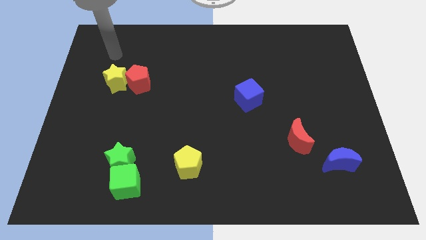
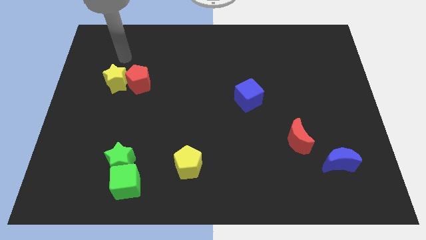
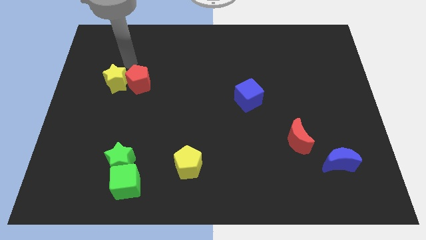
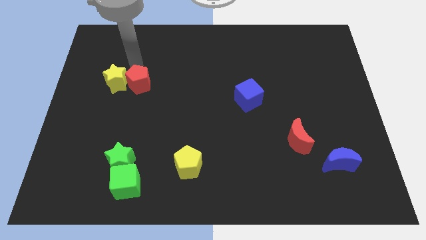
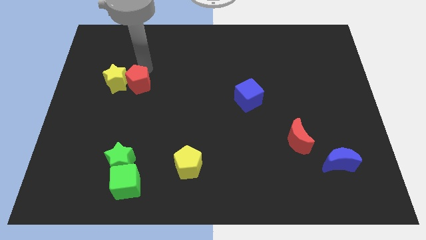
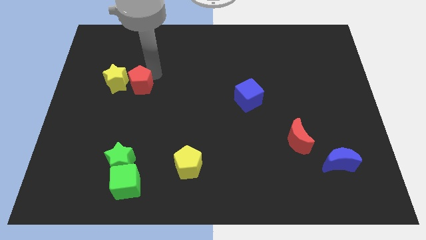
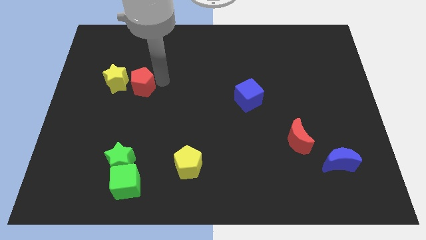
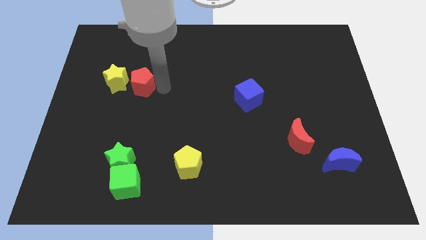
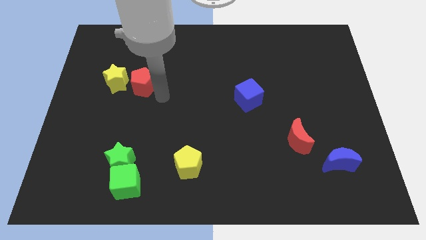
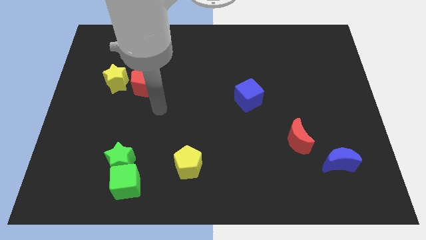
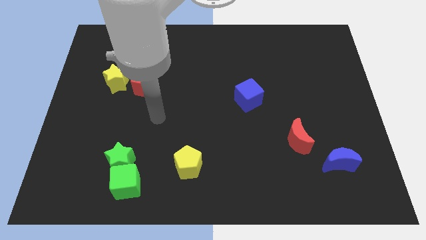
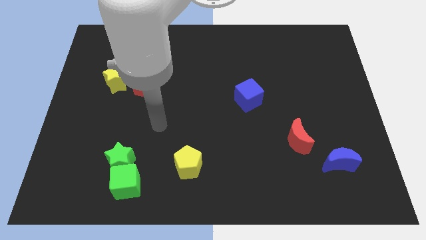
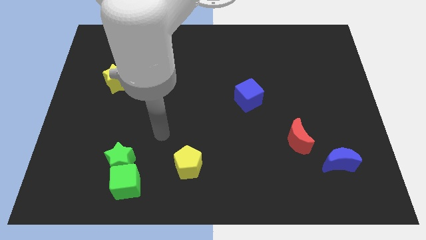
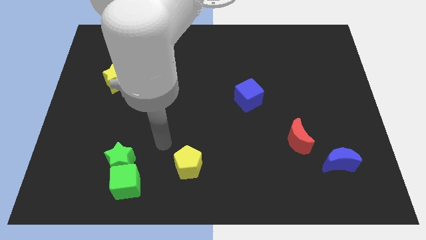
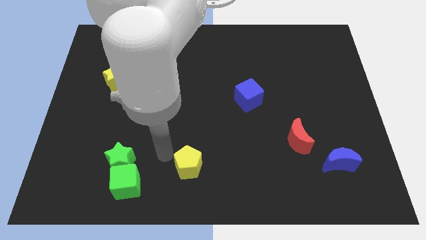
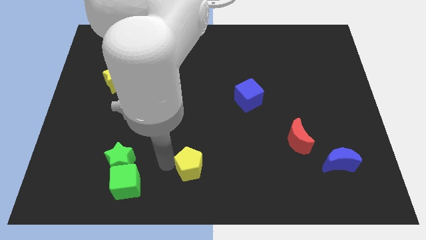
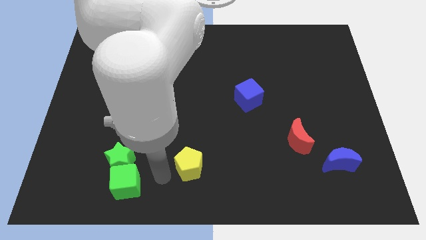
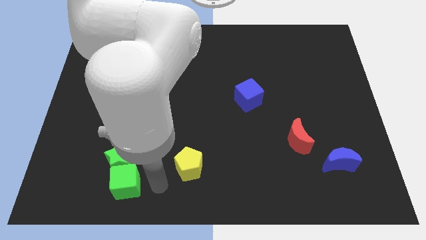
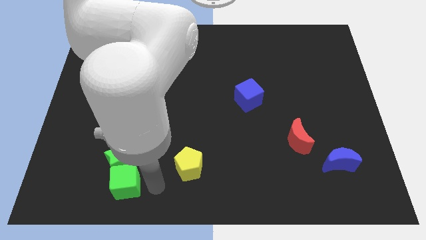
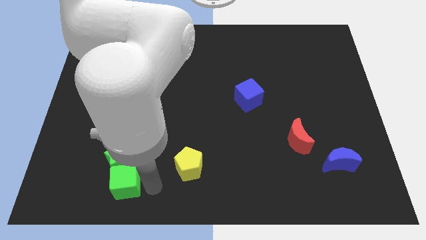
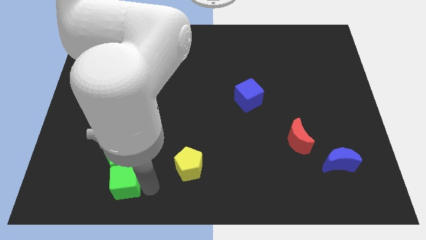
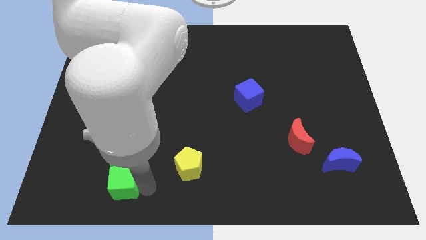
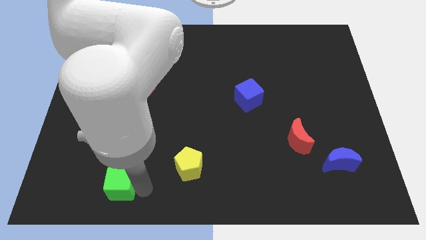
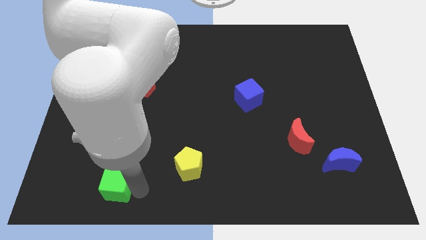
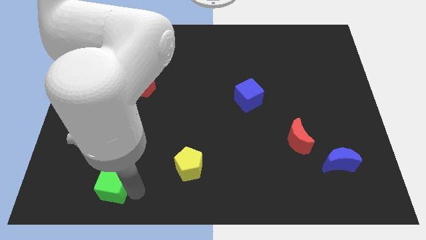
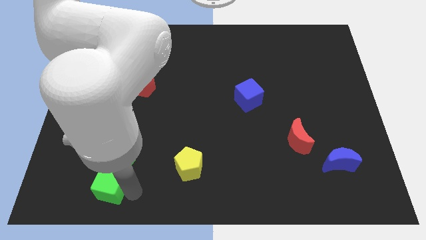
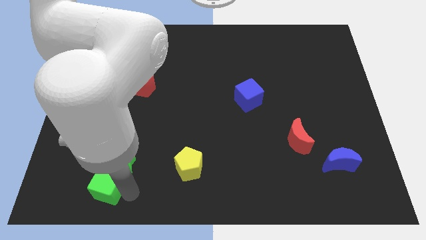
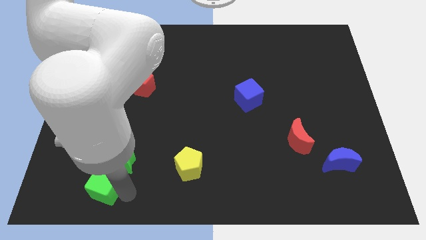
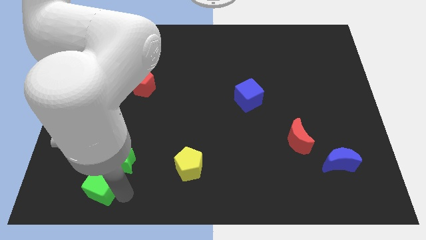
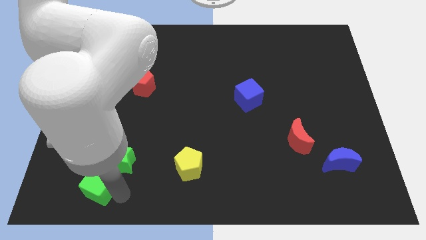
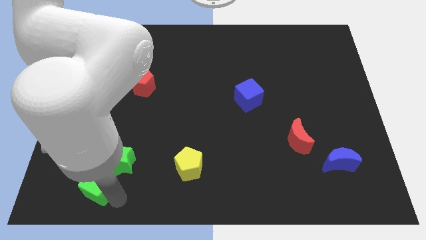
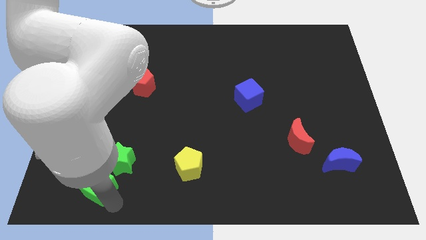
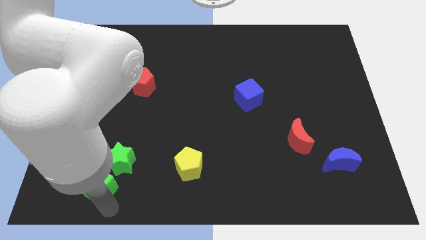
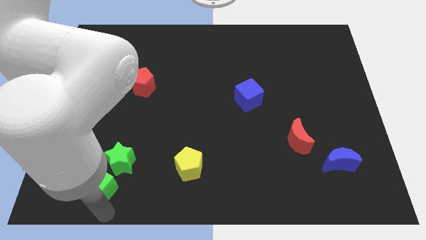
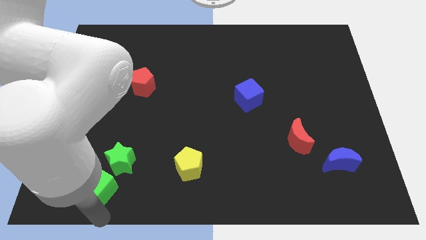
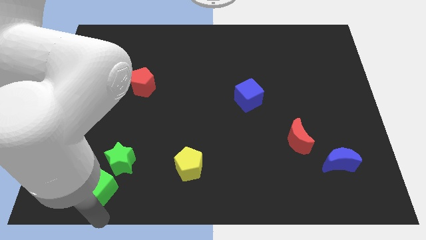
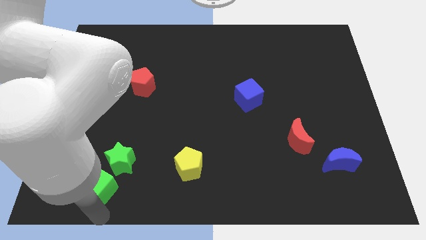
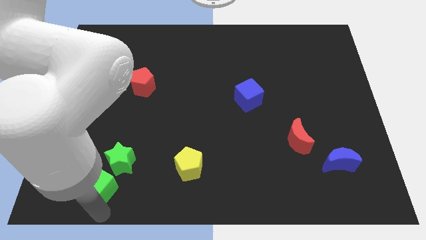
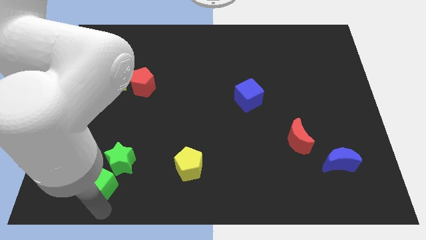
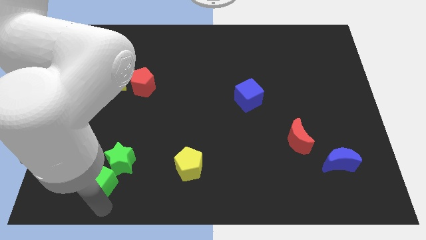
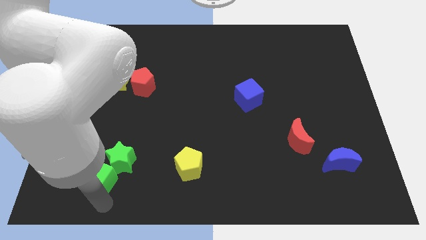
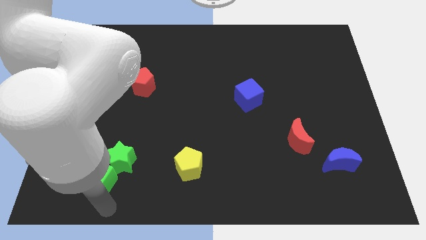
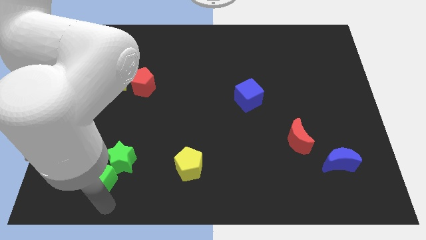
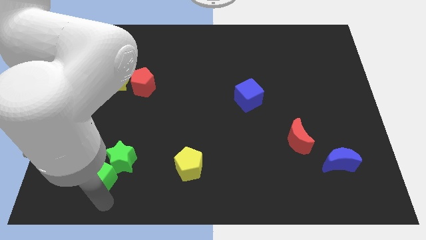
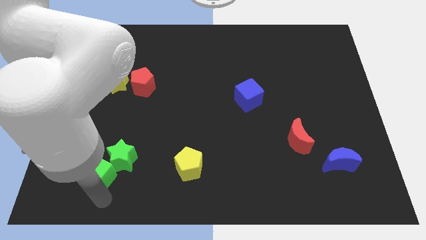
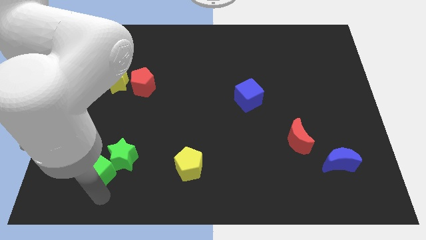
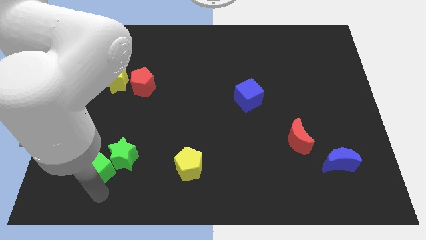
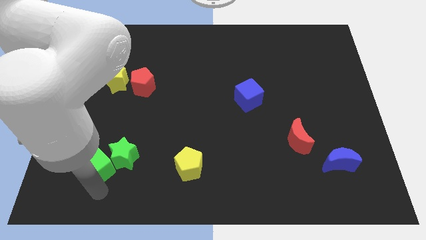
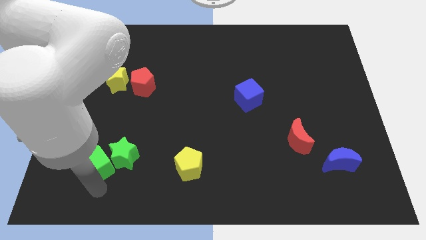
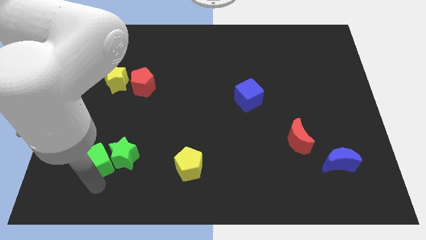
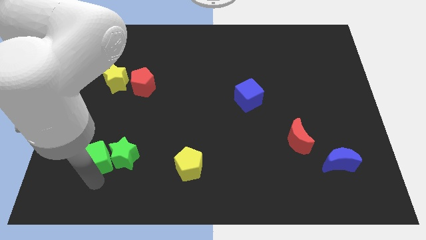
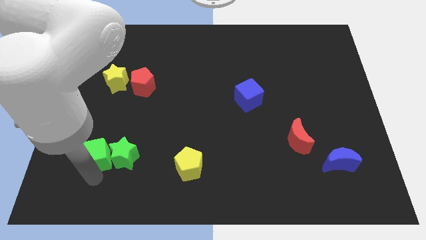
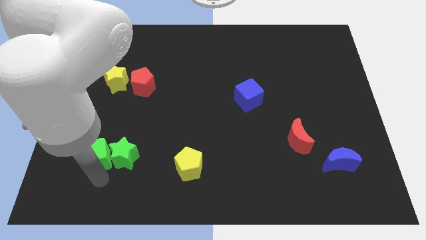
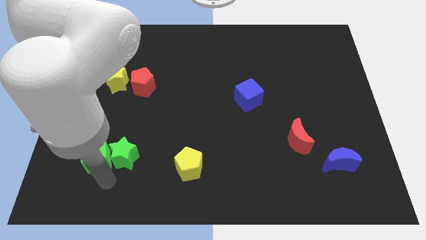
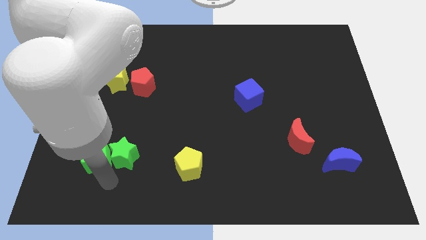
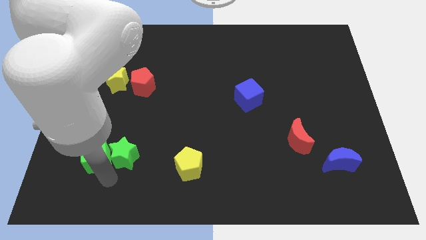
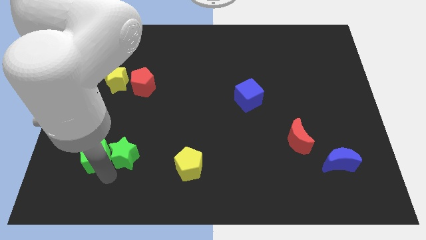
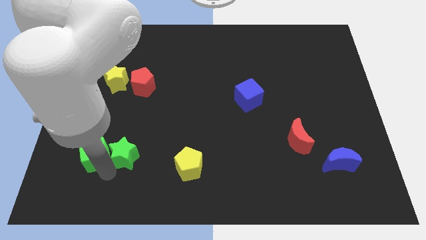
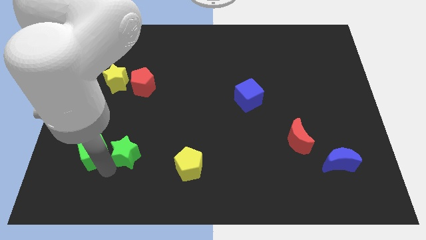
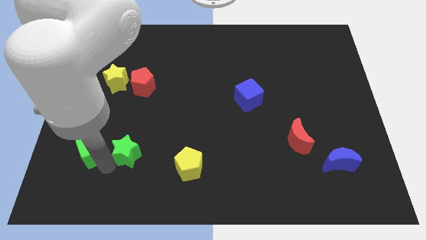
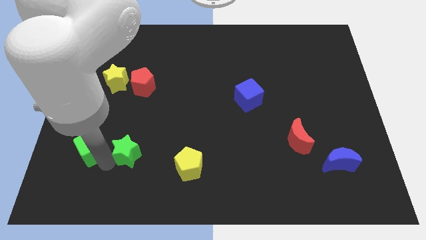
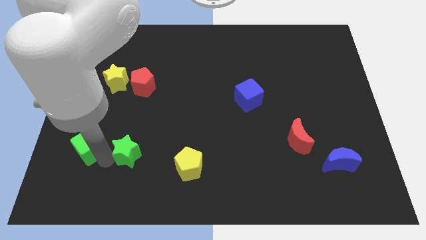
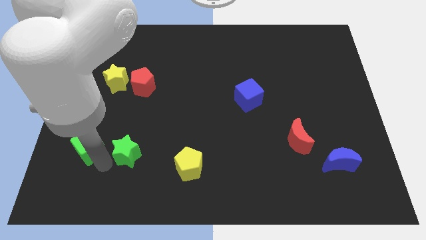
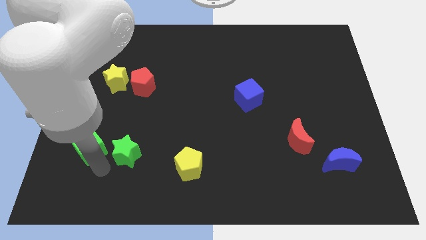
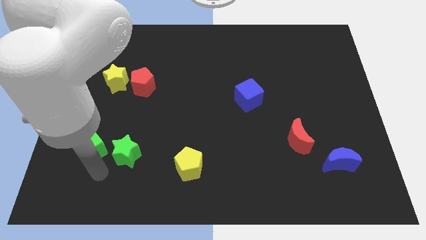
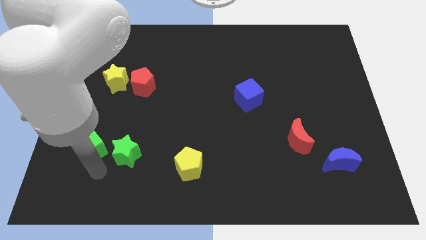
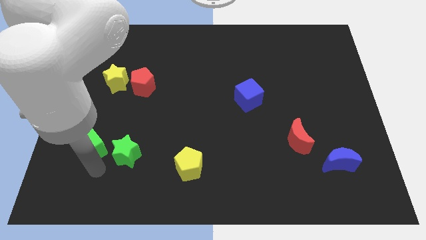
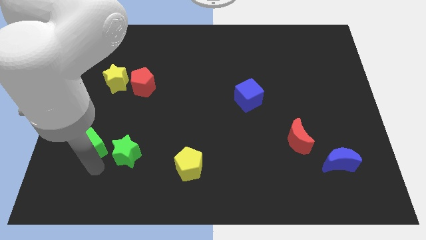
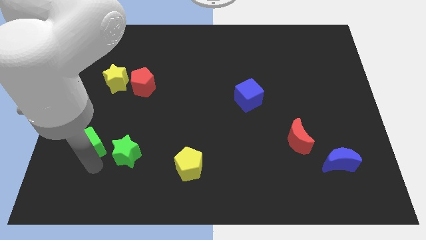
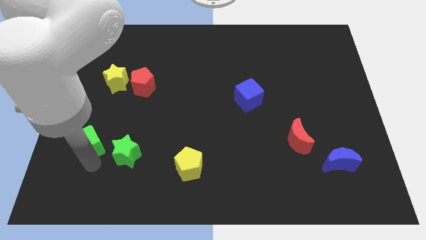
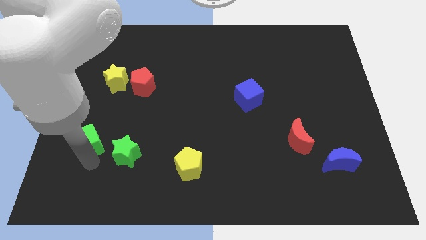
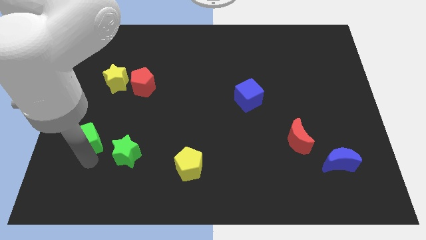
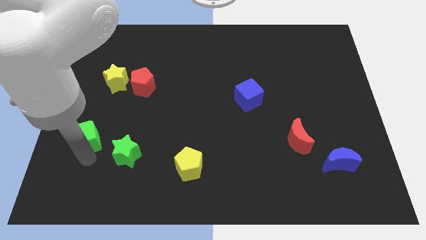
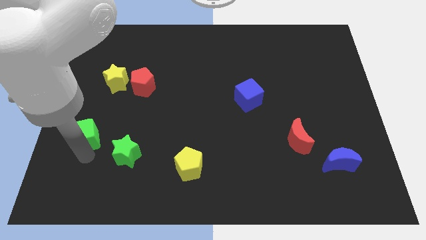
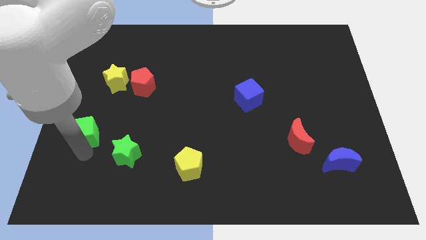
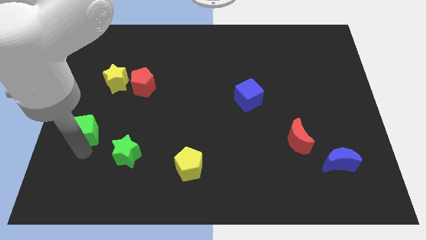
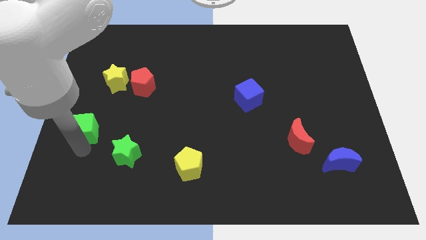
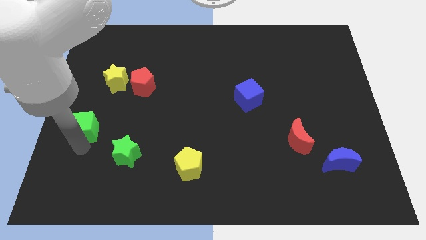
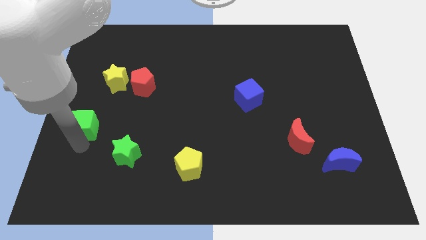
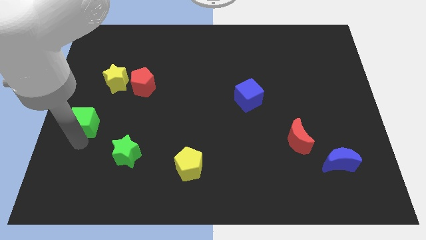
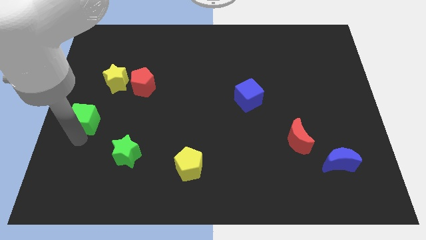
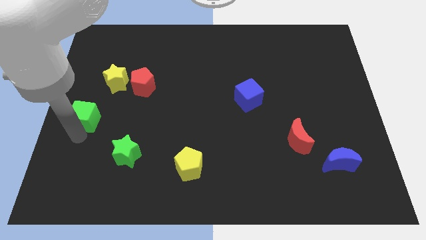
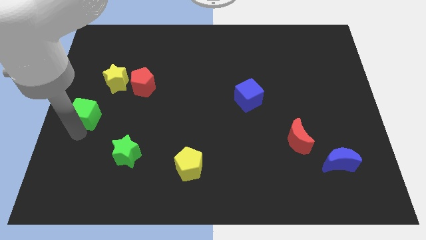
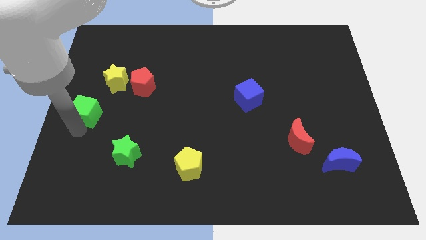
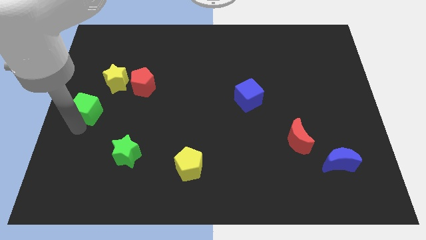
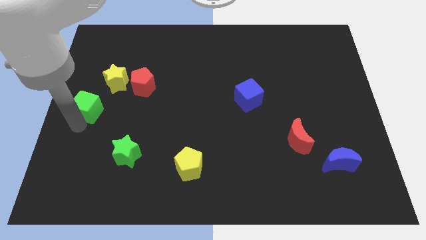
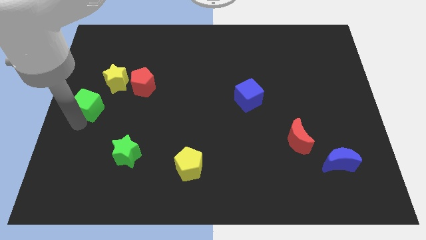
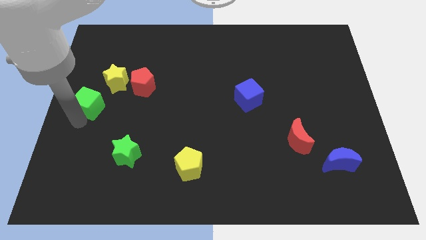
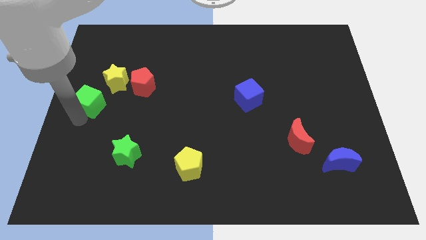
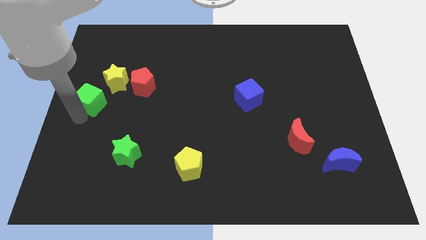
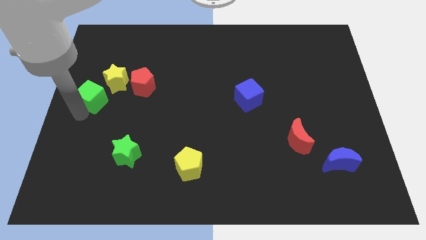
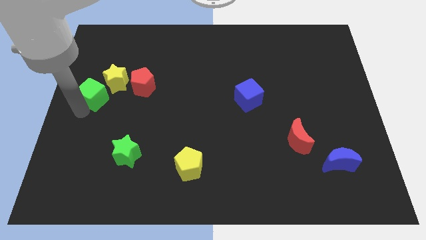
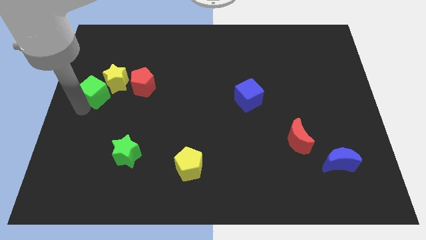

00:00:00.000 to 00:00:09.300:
slide the green cube towards the yellow star
